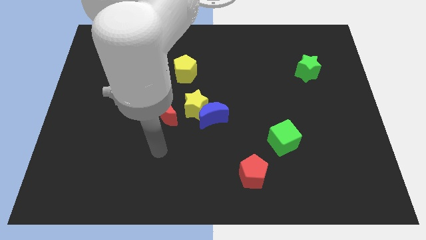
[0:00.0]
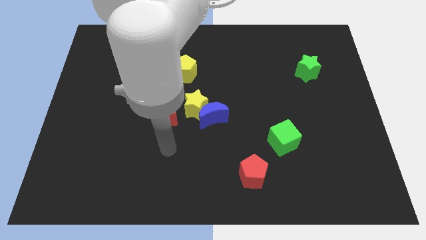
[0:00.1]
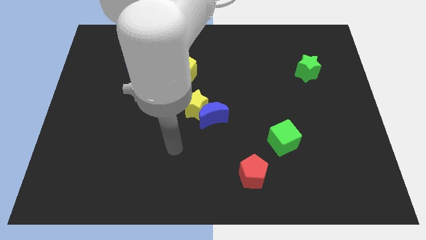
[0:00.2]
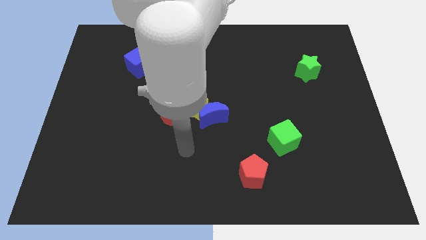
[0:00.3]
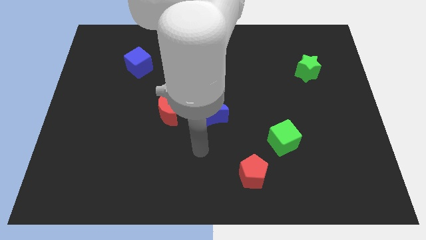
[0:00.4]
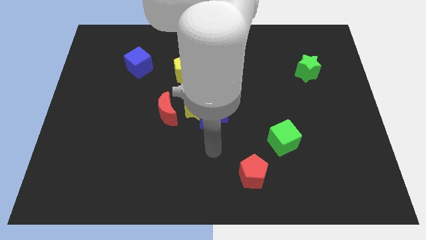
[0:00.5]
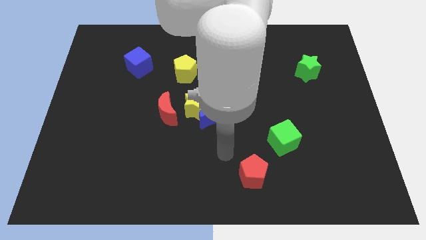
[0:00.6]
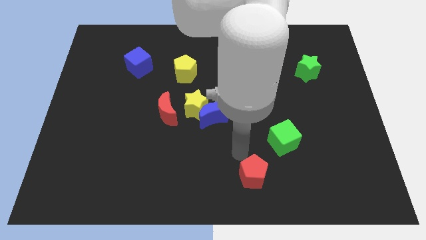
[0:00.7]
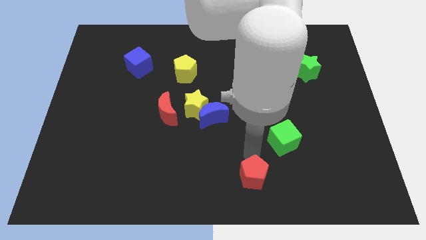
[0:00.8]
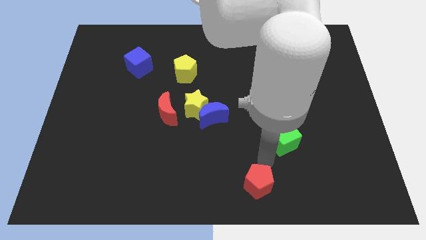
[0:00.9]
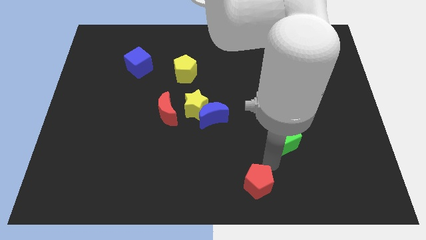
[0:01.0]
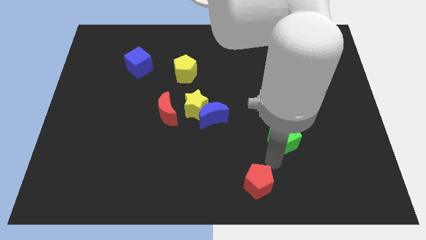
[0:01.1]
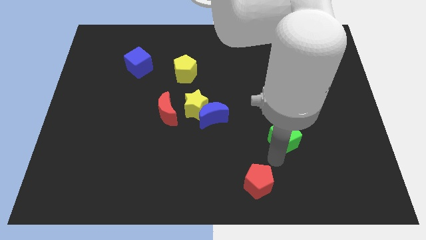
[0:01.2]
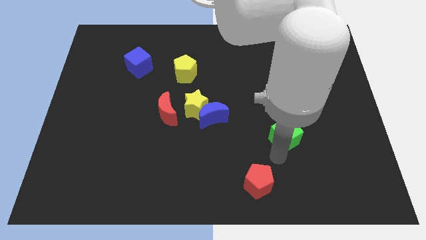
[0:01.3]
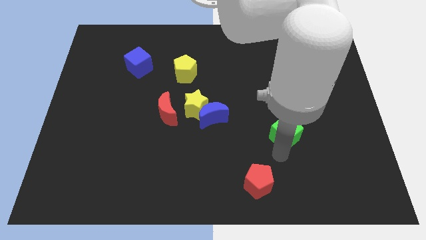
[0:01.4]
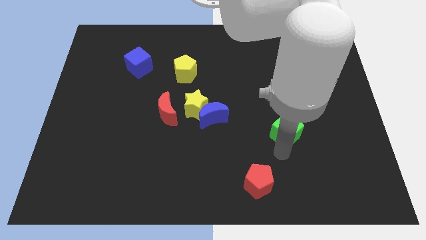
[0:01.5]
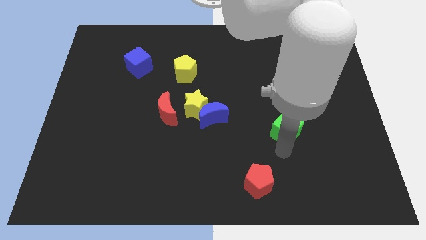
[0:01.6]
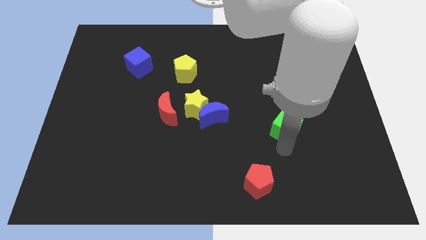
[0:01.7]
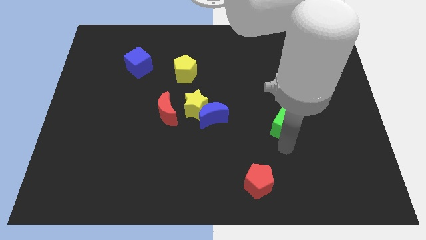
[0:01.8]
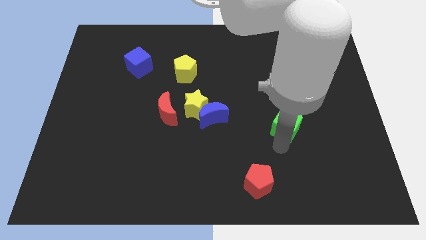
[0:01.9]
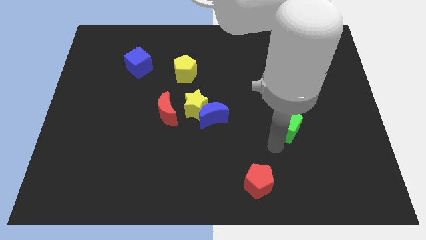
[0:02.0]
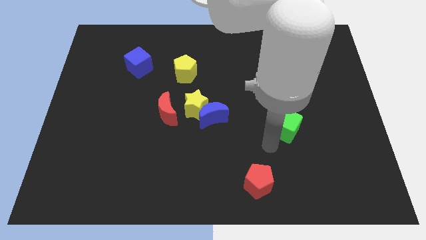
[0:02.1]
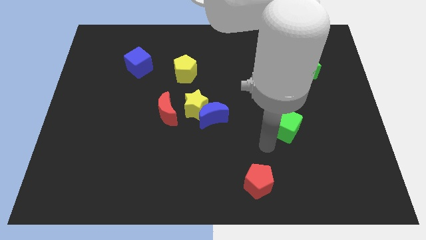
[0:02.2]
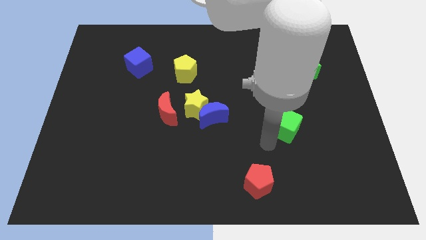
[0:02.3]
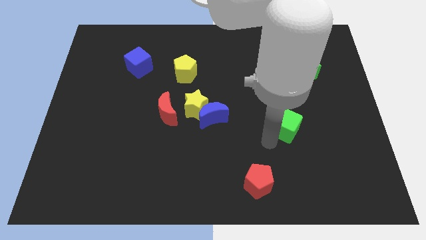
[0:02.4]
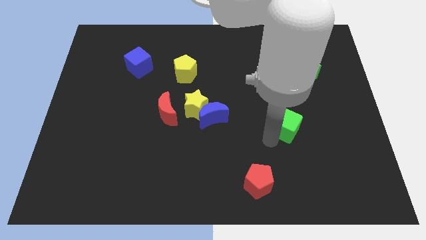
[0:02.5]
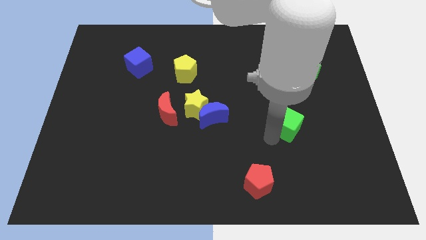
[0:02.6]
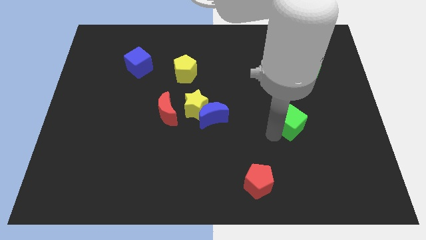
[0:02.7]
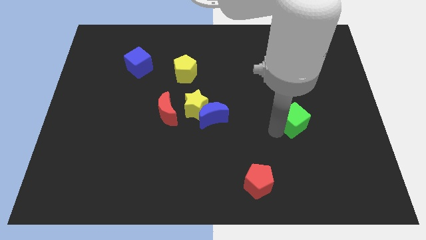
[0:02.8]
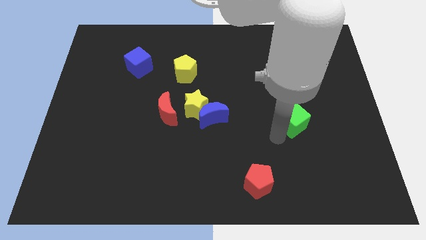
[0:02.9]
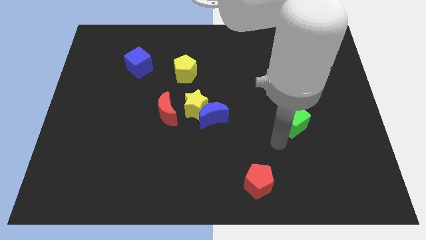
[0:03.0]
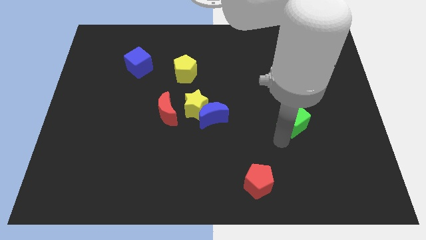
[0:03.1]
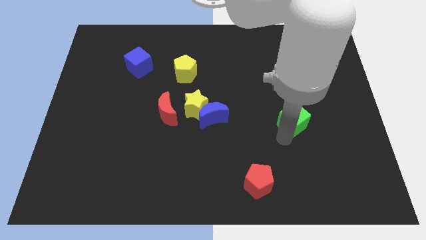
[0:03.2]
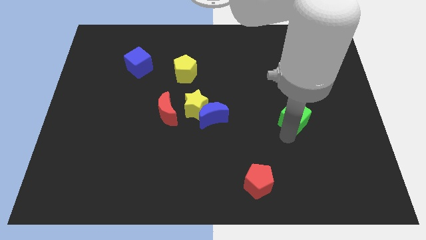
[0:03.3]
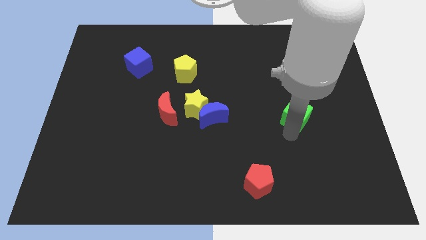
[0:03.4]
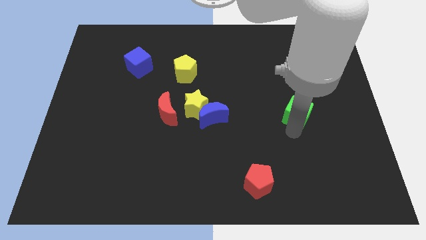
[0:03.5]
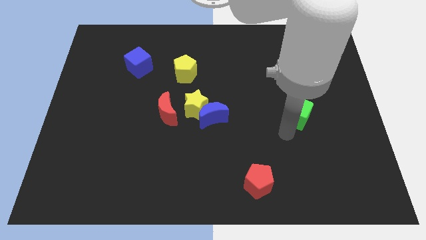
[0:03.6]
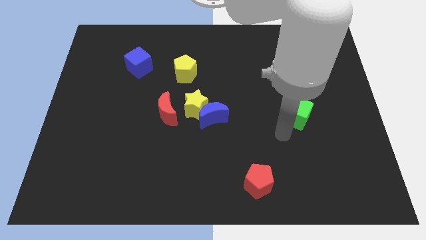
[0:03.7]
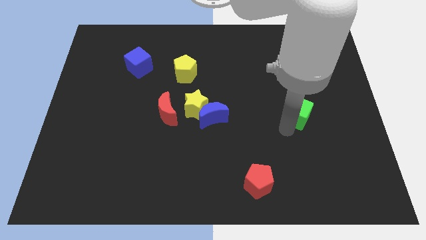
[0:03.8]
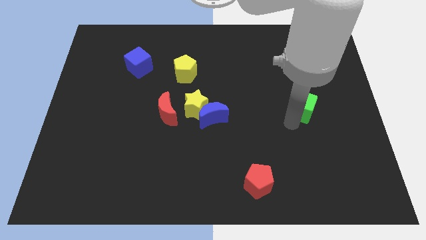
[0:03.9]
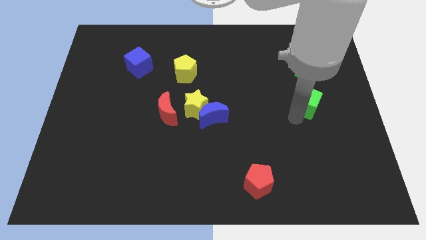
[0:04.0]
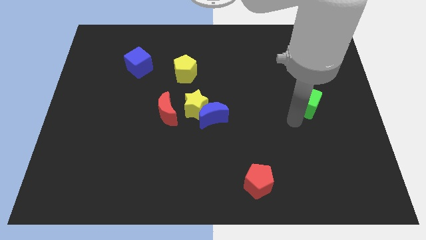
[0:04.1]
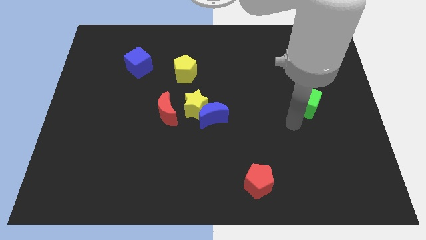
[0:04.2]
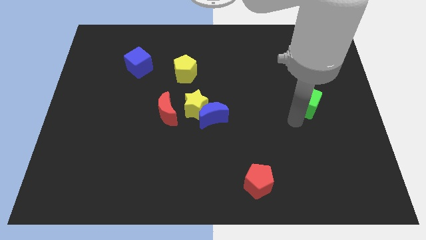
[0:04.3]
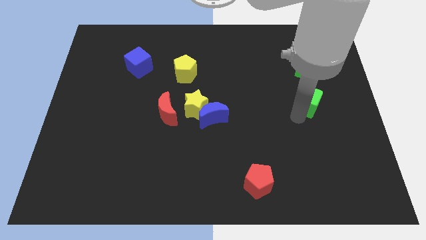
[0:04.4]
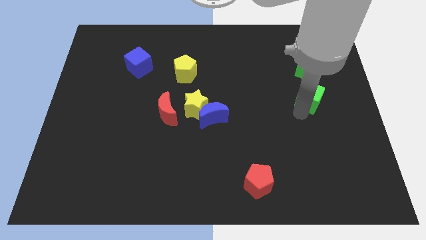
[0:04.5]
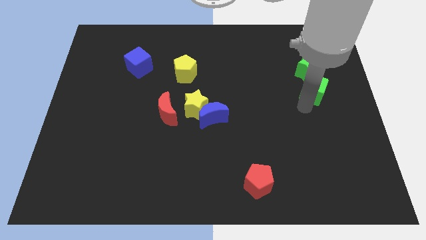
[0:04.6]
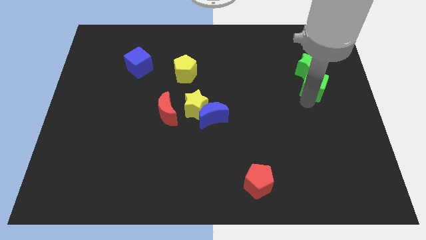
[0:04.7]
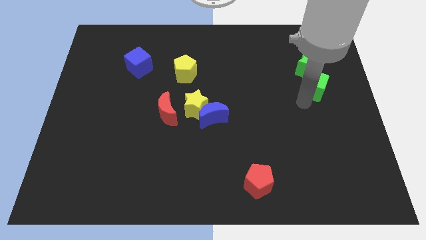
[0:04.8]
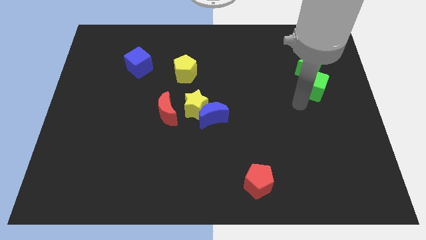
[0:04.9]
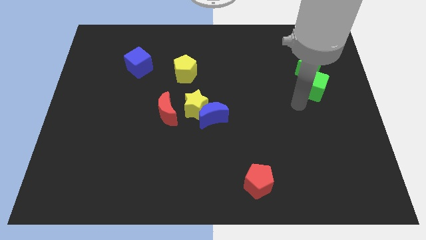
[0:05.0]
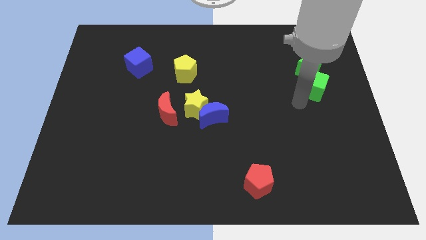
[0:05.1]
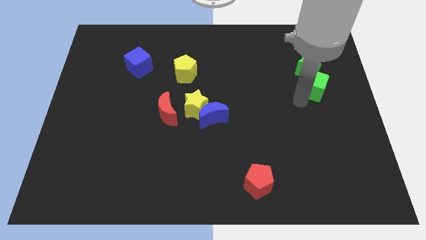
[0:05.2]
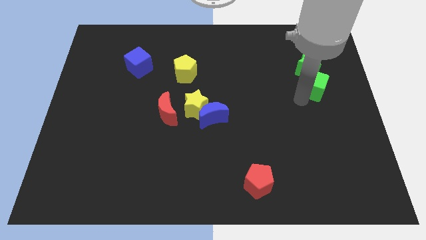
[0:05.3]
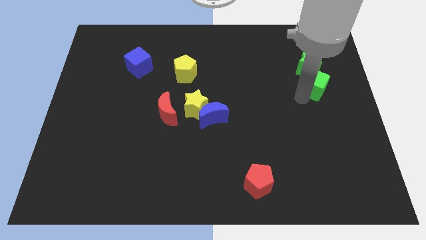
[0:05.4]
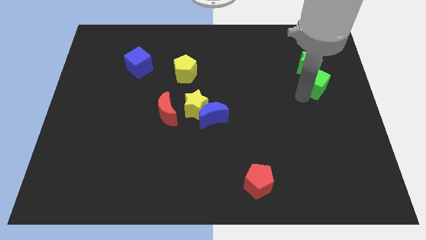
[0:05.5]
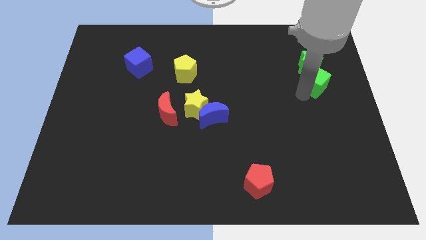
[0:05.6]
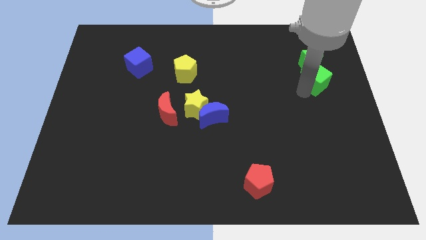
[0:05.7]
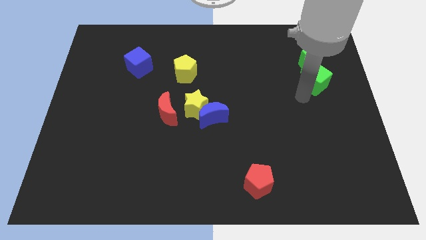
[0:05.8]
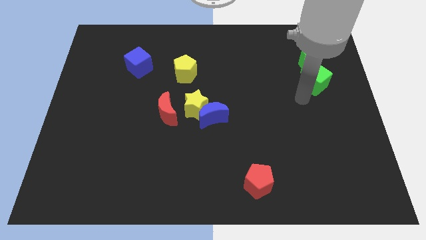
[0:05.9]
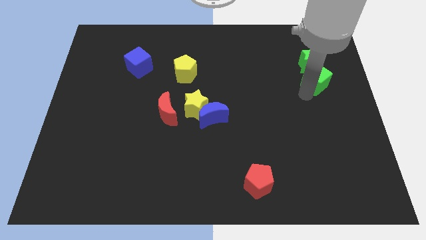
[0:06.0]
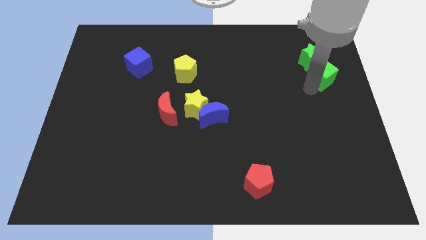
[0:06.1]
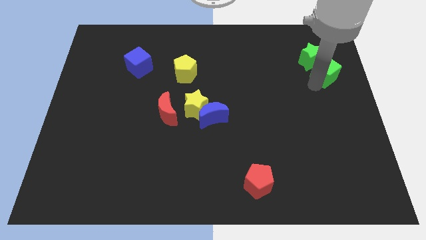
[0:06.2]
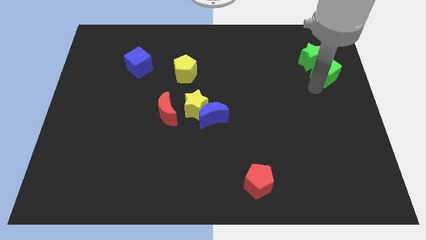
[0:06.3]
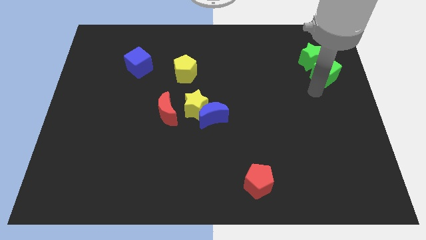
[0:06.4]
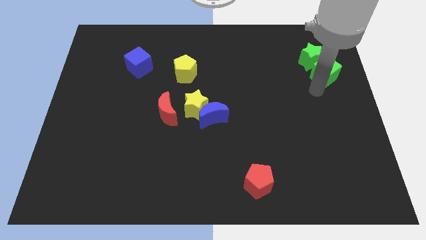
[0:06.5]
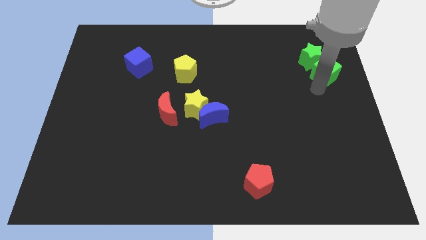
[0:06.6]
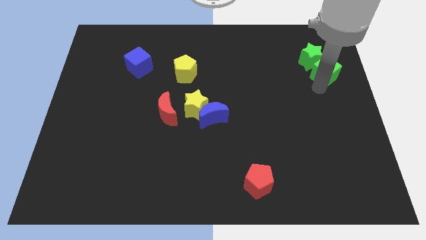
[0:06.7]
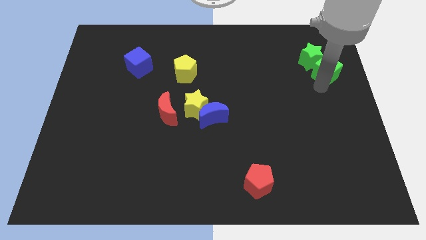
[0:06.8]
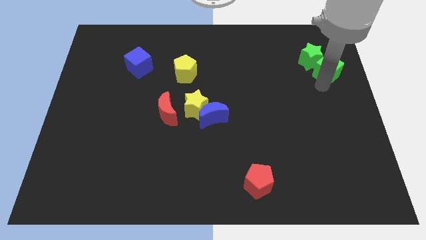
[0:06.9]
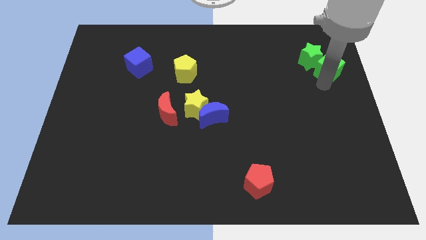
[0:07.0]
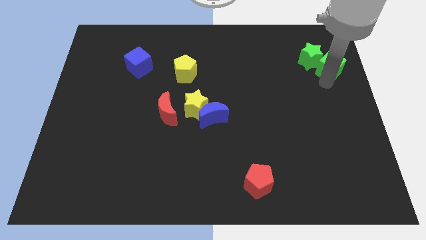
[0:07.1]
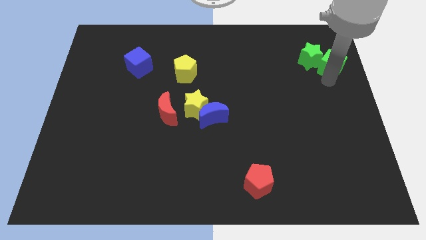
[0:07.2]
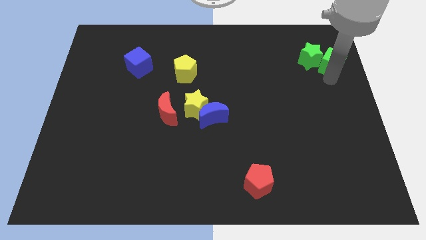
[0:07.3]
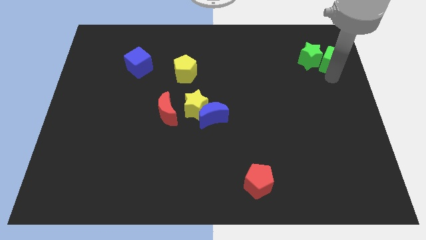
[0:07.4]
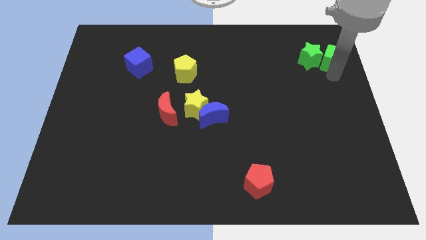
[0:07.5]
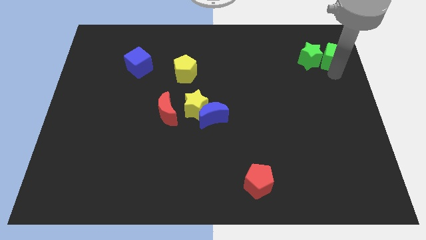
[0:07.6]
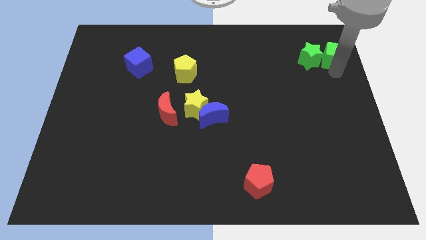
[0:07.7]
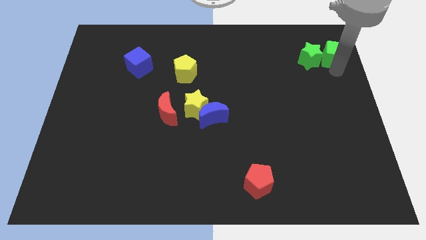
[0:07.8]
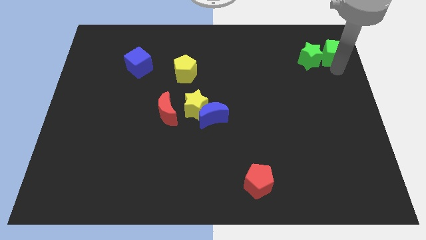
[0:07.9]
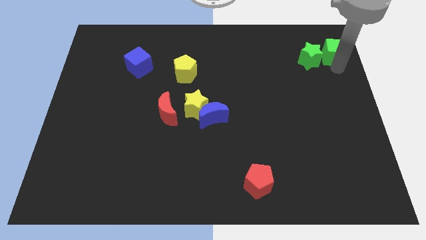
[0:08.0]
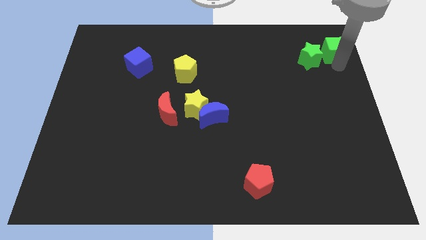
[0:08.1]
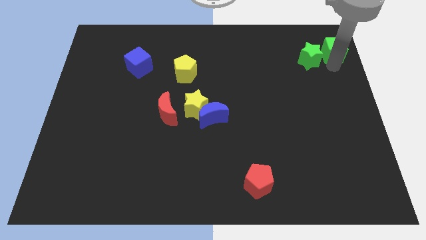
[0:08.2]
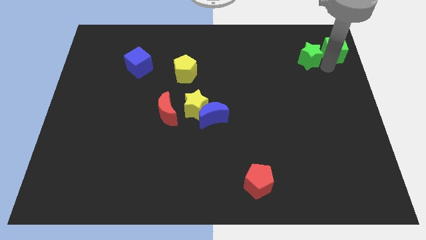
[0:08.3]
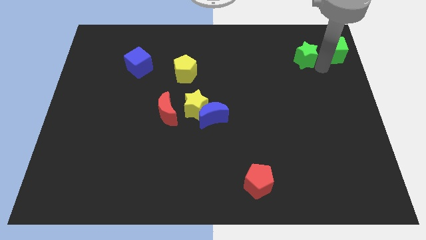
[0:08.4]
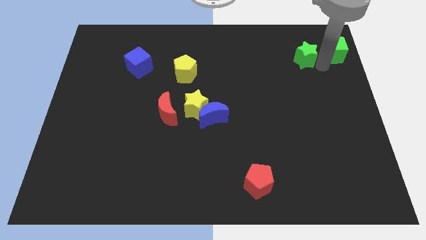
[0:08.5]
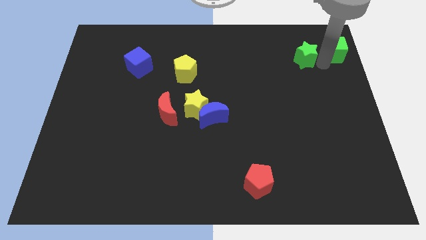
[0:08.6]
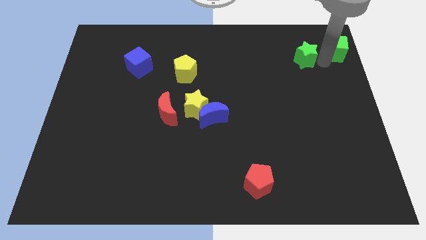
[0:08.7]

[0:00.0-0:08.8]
put the green cube to the top right corner
